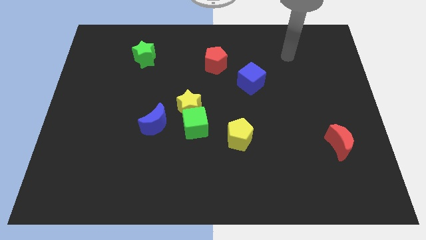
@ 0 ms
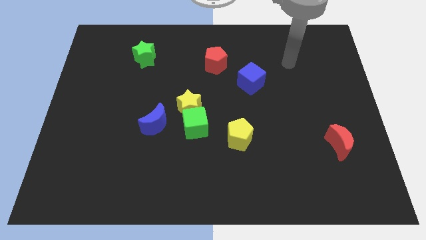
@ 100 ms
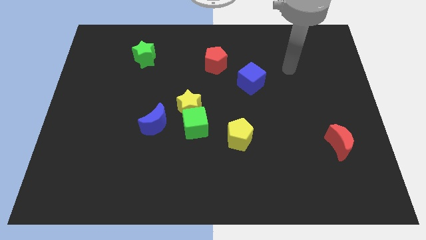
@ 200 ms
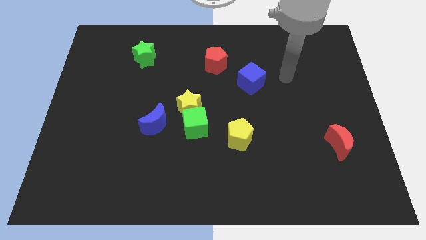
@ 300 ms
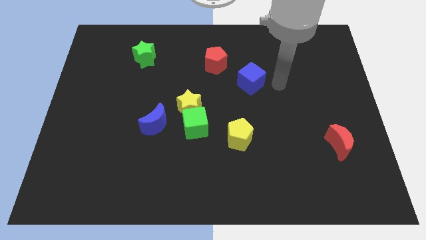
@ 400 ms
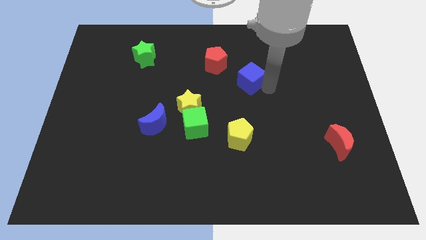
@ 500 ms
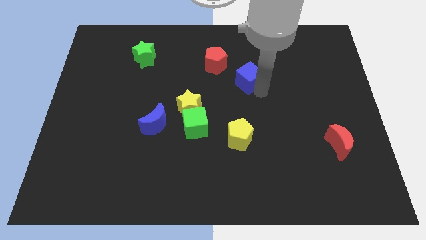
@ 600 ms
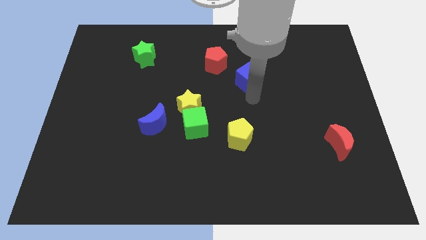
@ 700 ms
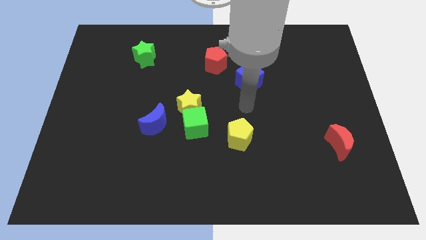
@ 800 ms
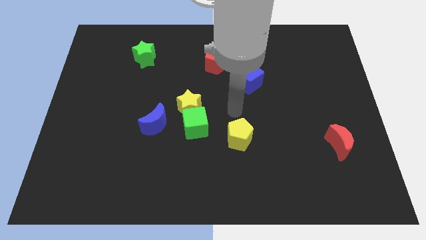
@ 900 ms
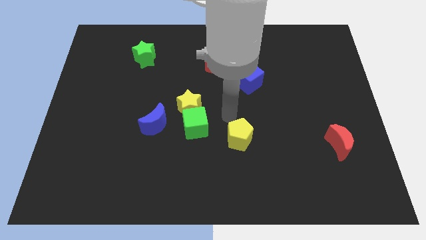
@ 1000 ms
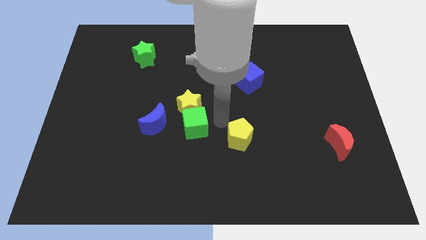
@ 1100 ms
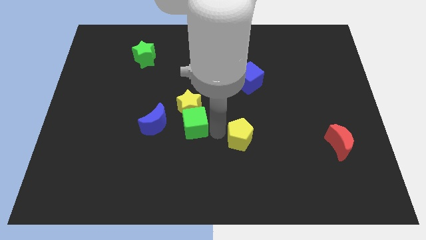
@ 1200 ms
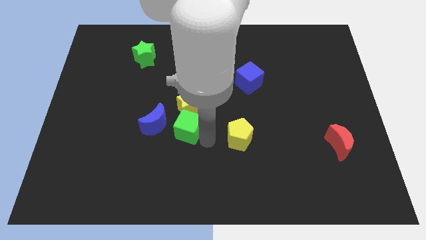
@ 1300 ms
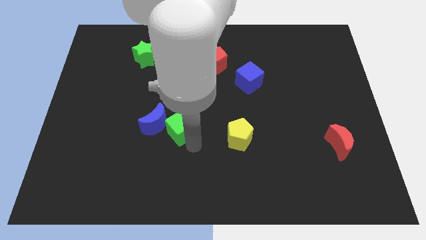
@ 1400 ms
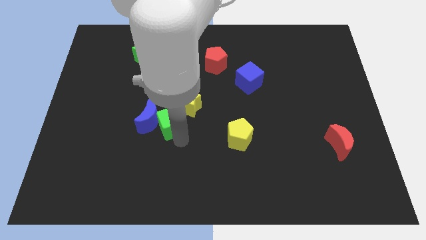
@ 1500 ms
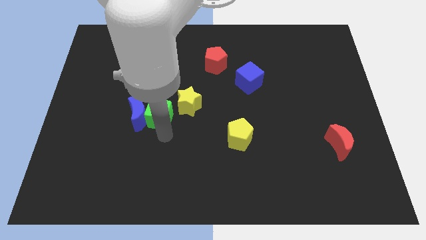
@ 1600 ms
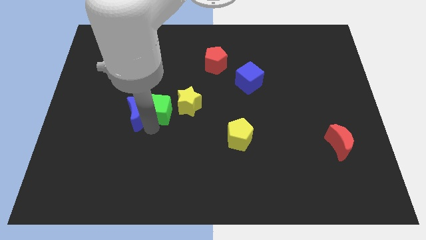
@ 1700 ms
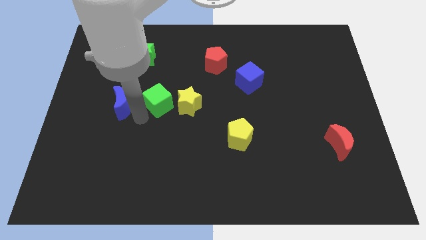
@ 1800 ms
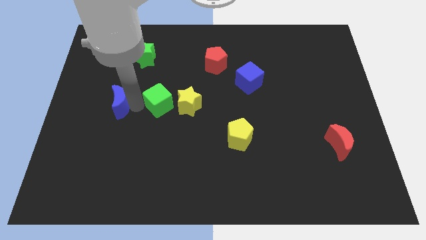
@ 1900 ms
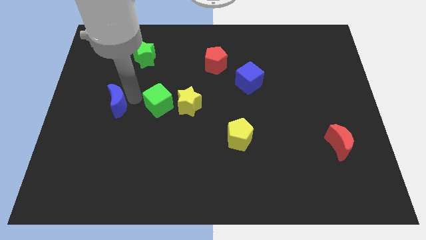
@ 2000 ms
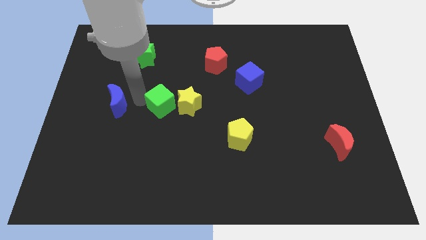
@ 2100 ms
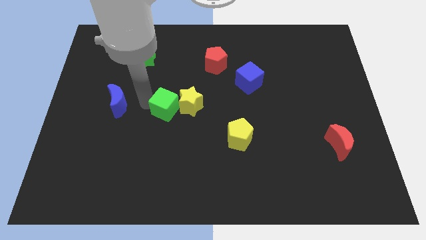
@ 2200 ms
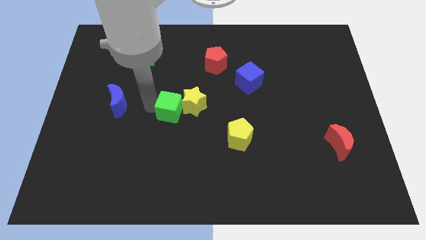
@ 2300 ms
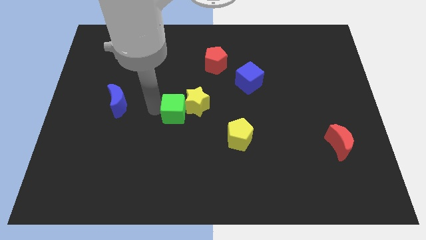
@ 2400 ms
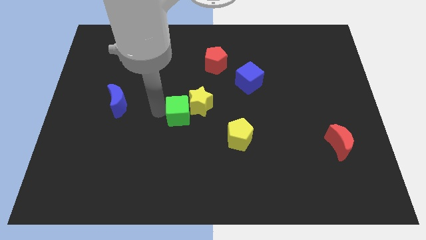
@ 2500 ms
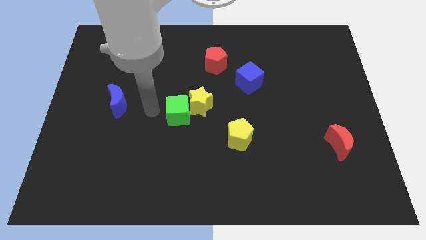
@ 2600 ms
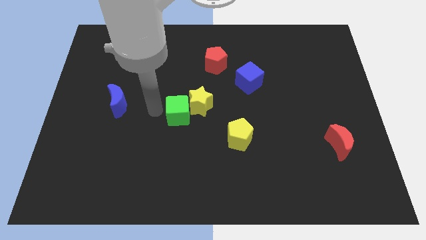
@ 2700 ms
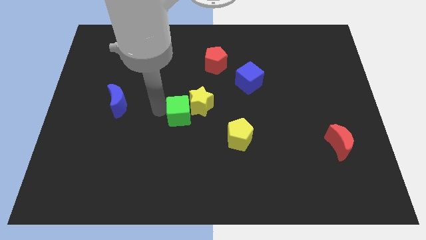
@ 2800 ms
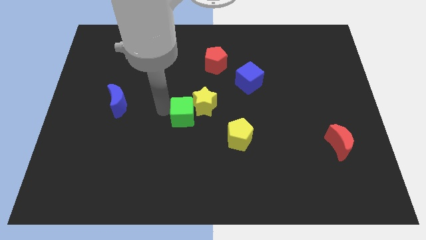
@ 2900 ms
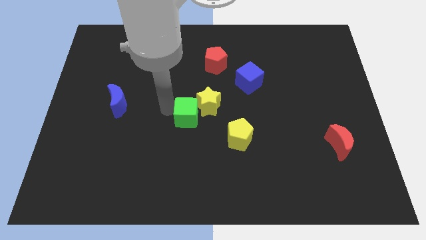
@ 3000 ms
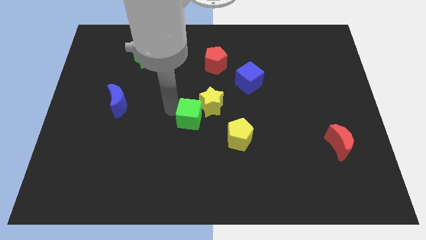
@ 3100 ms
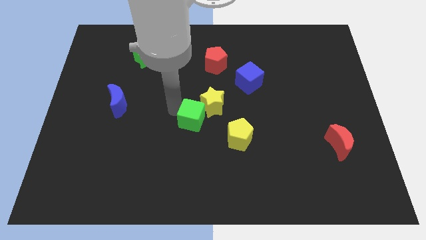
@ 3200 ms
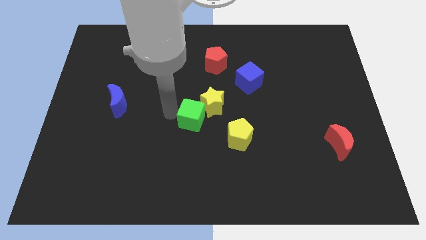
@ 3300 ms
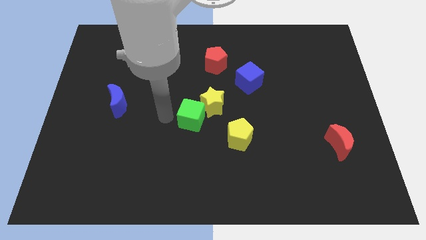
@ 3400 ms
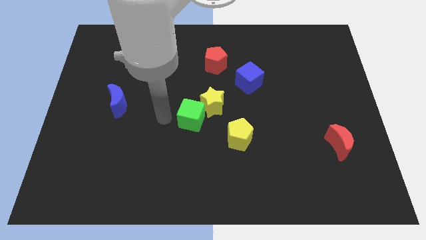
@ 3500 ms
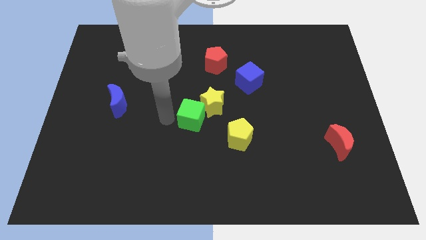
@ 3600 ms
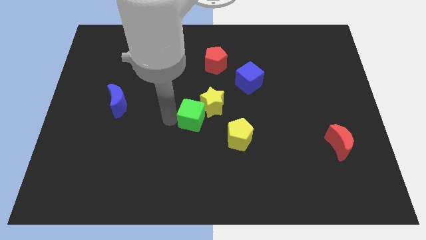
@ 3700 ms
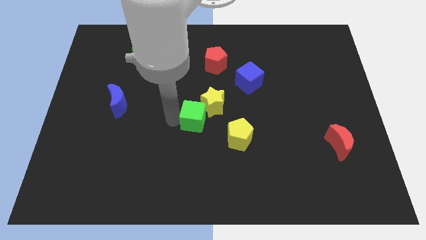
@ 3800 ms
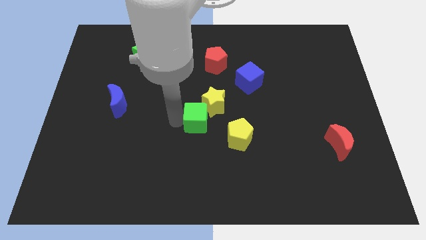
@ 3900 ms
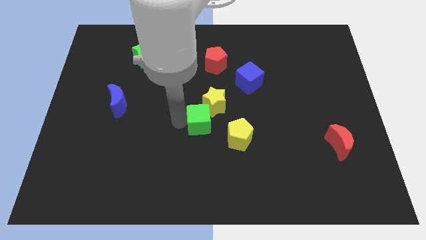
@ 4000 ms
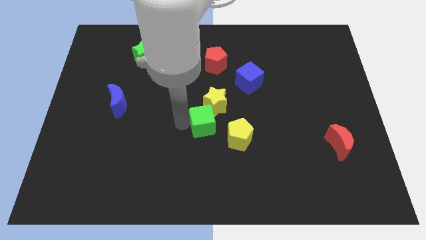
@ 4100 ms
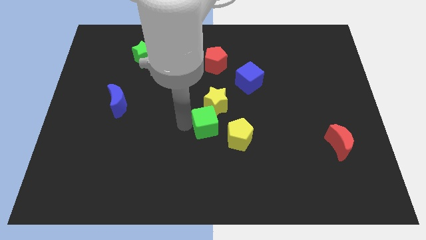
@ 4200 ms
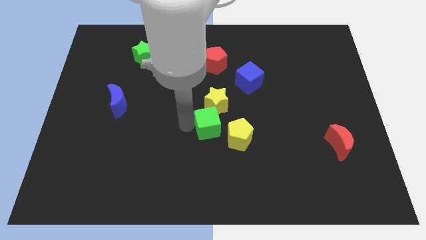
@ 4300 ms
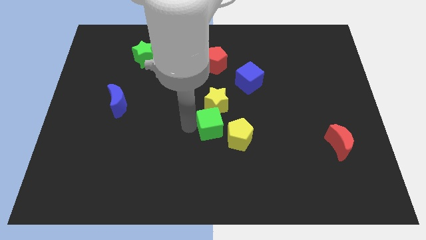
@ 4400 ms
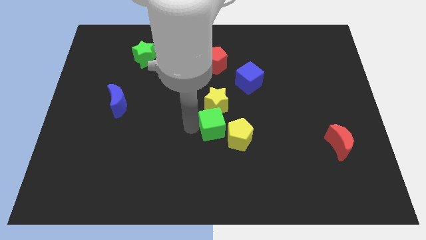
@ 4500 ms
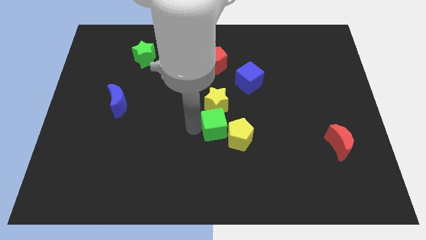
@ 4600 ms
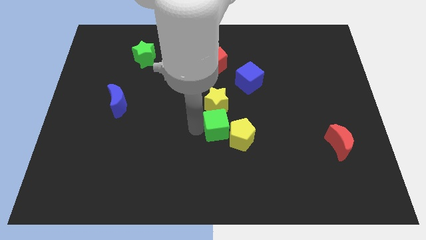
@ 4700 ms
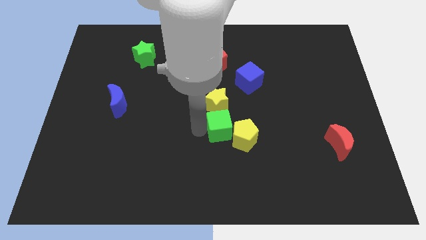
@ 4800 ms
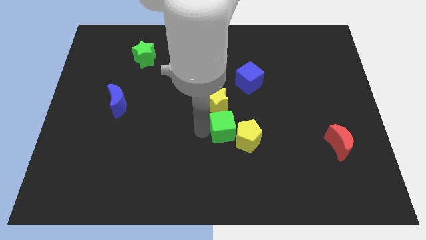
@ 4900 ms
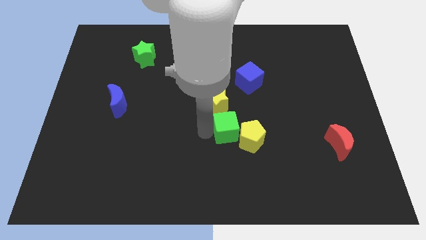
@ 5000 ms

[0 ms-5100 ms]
slightly slide the green cube to the right

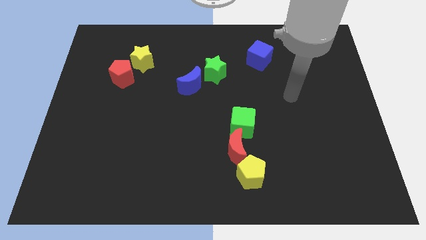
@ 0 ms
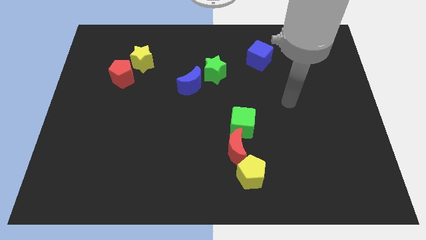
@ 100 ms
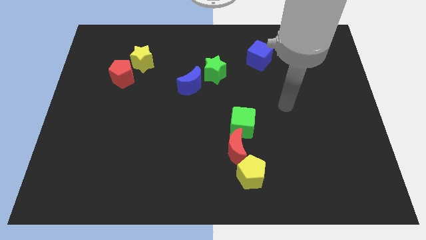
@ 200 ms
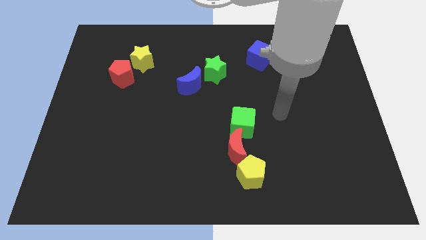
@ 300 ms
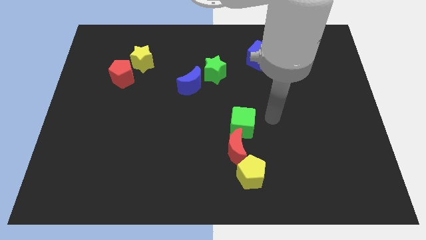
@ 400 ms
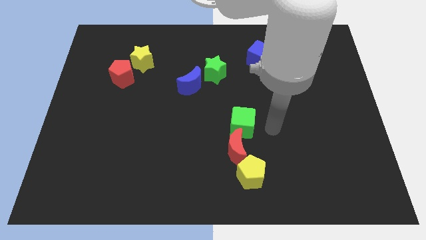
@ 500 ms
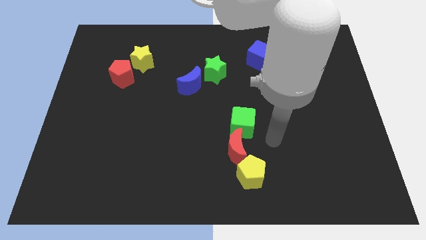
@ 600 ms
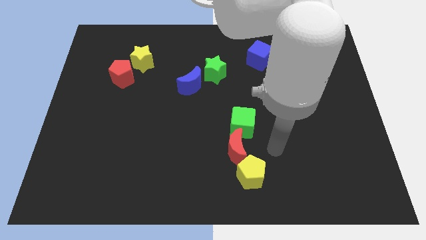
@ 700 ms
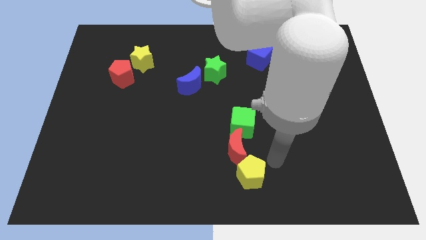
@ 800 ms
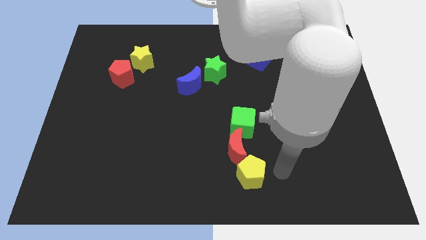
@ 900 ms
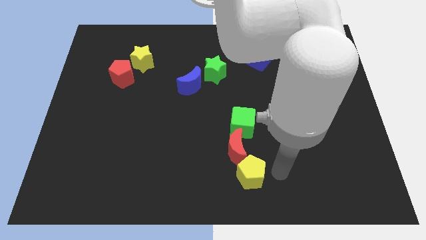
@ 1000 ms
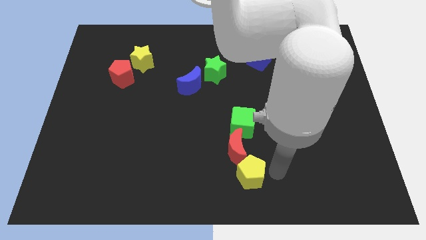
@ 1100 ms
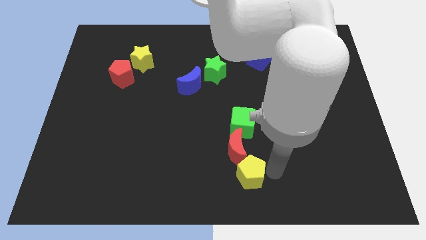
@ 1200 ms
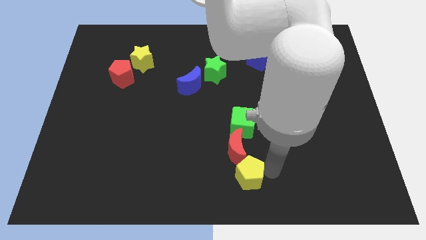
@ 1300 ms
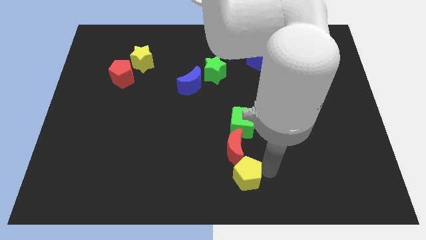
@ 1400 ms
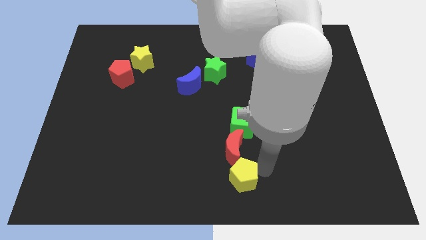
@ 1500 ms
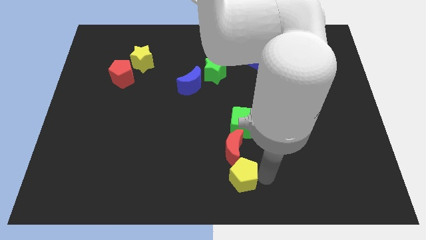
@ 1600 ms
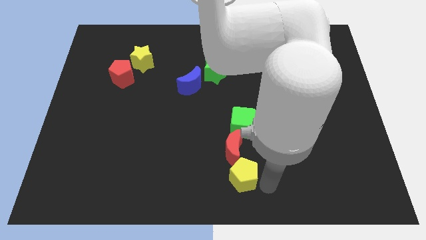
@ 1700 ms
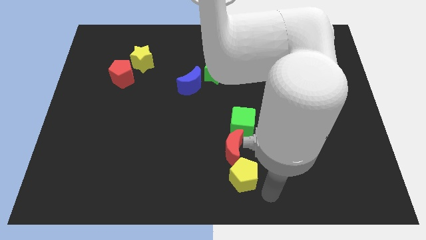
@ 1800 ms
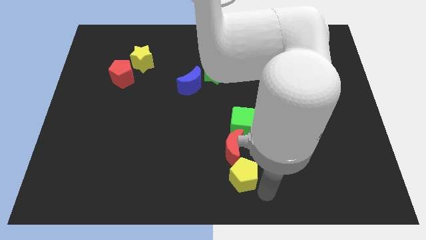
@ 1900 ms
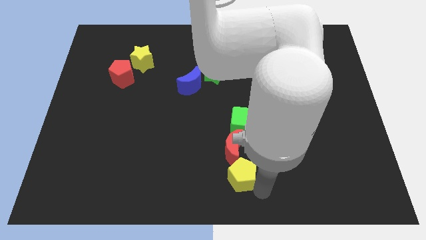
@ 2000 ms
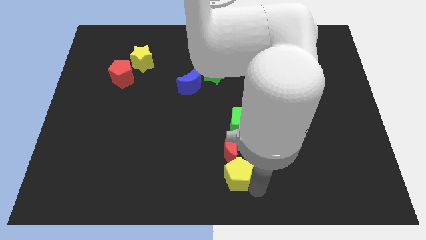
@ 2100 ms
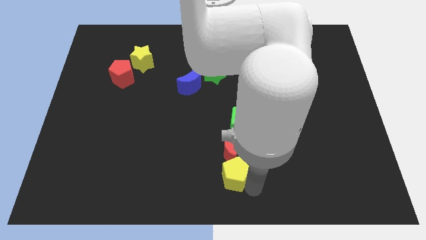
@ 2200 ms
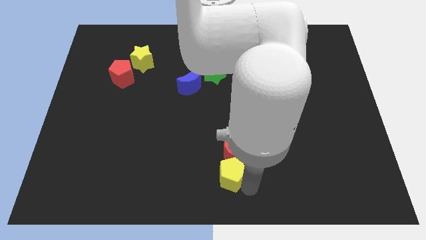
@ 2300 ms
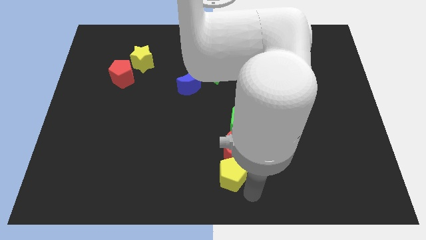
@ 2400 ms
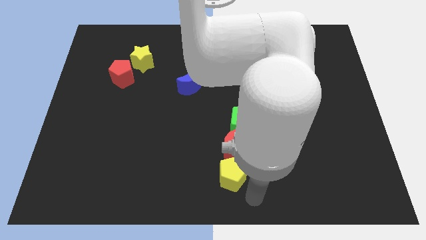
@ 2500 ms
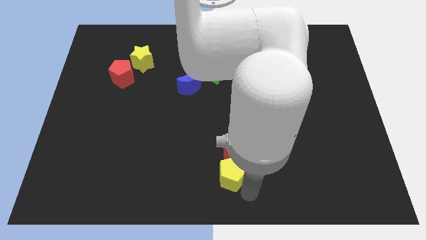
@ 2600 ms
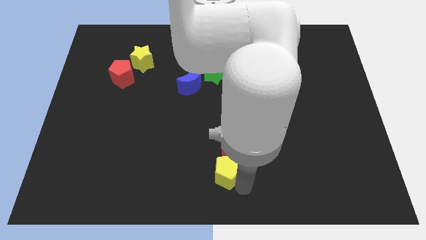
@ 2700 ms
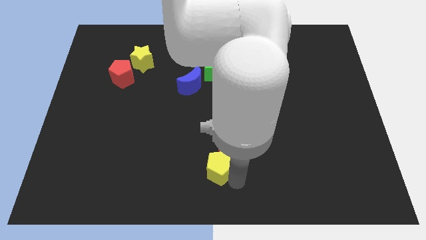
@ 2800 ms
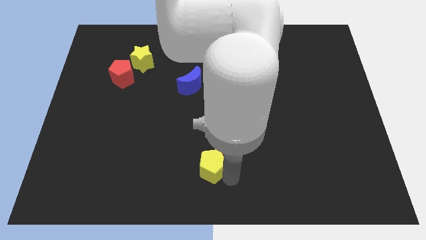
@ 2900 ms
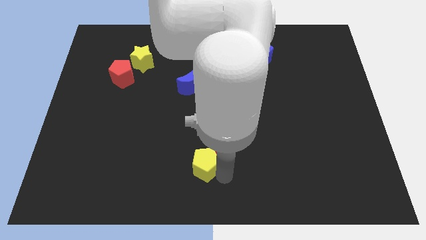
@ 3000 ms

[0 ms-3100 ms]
move the yellow pentagon slightly upwards and to the left
